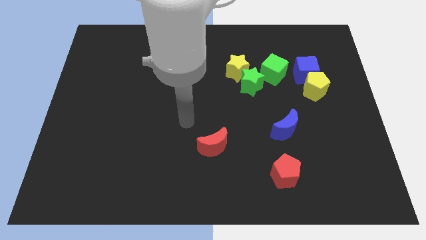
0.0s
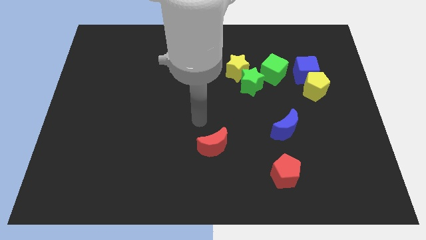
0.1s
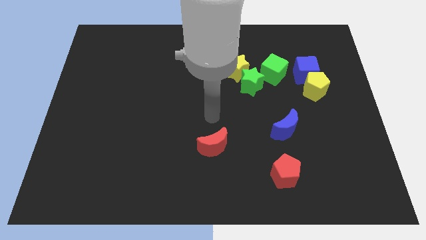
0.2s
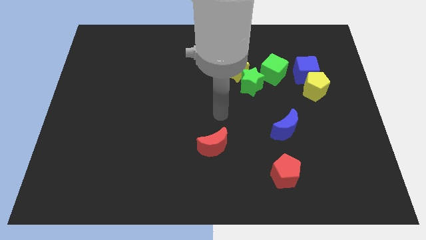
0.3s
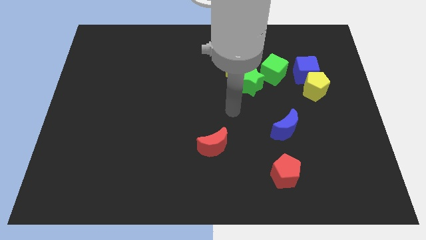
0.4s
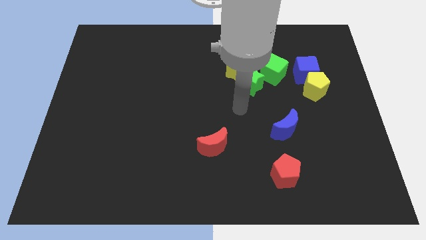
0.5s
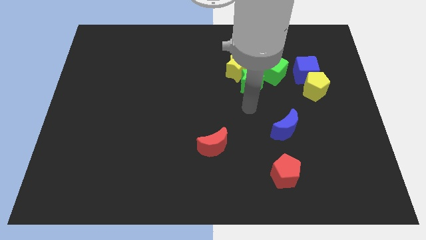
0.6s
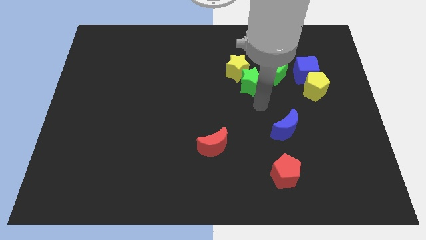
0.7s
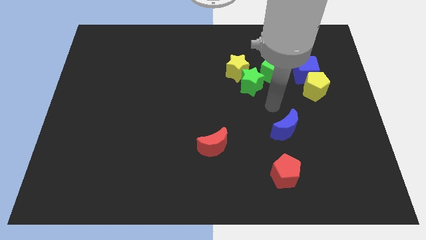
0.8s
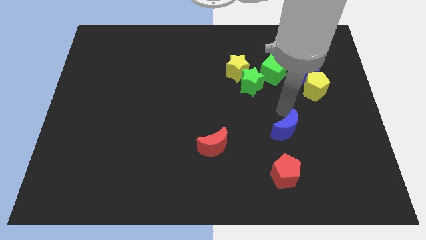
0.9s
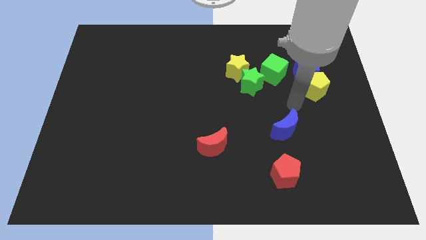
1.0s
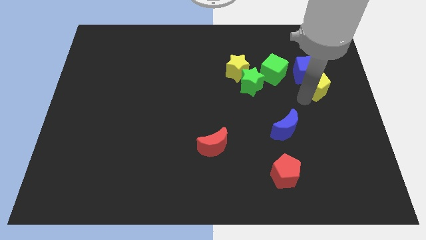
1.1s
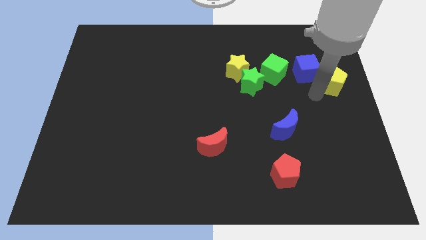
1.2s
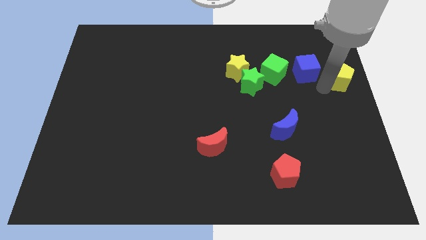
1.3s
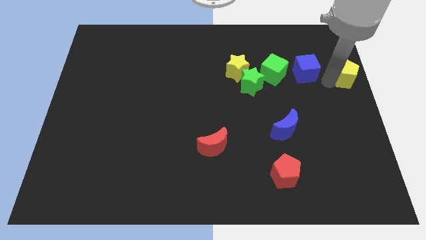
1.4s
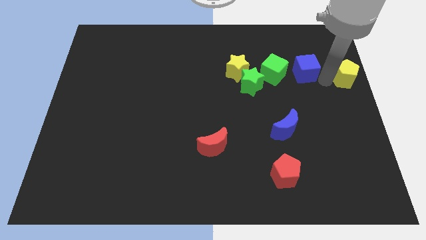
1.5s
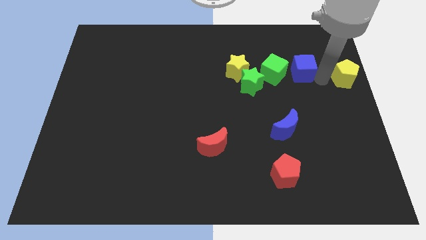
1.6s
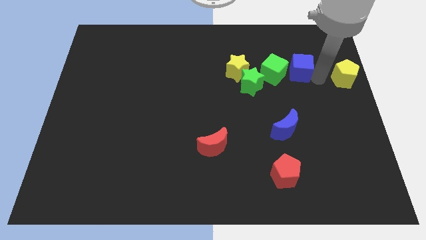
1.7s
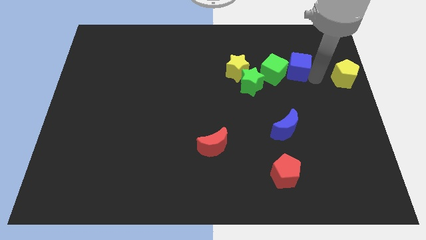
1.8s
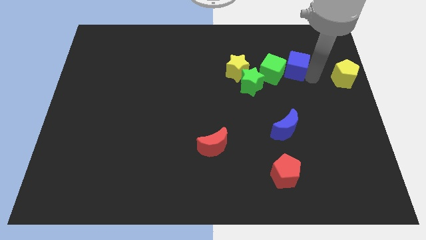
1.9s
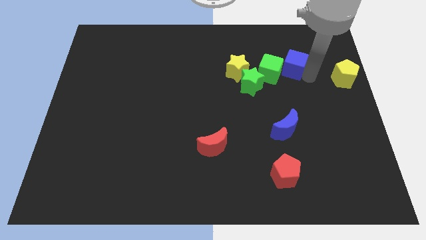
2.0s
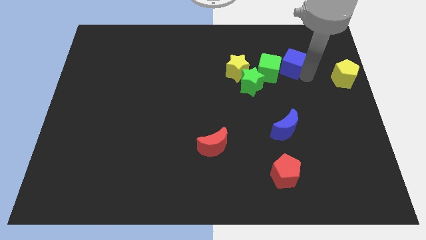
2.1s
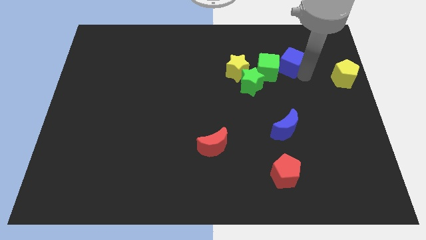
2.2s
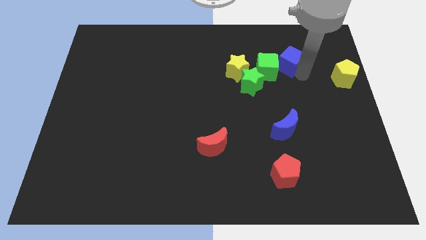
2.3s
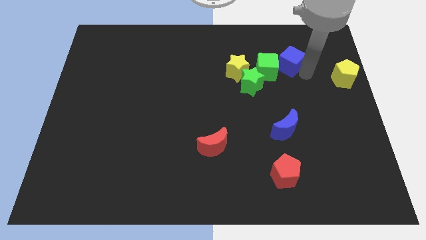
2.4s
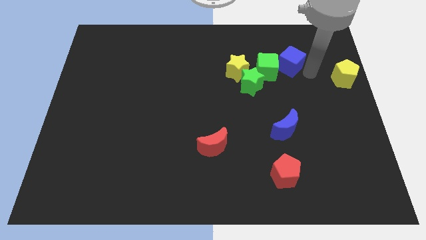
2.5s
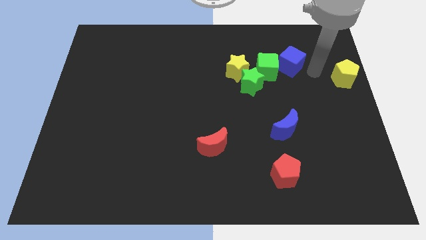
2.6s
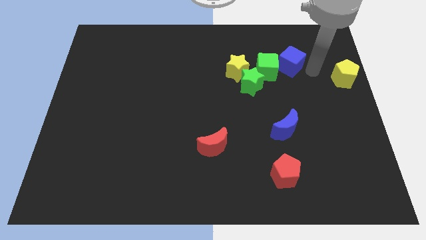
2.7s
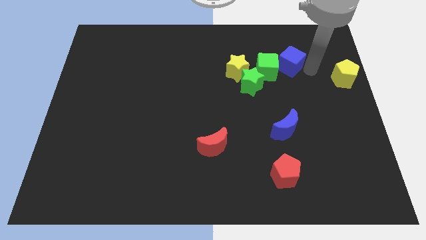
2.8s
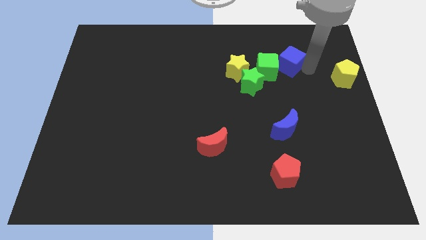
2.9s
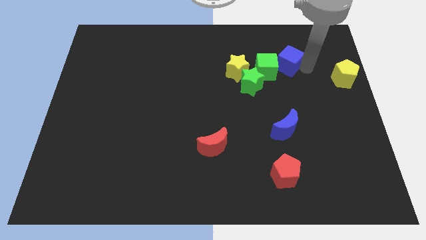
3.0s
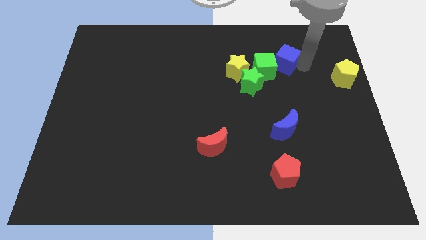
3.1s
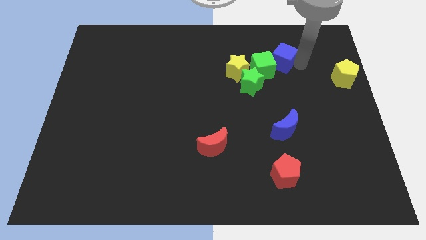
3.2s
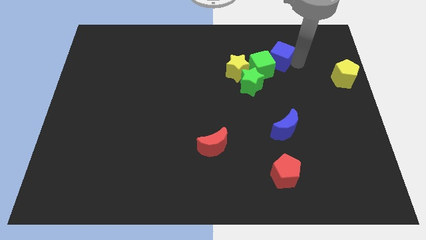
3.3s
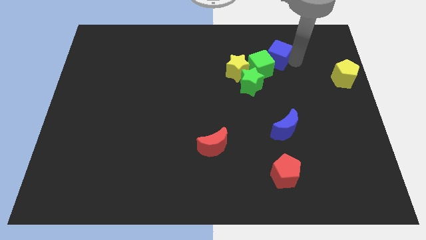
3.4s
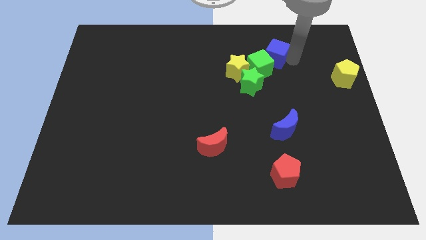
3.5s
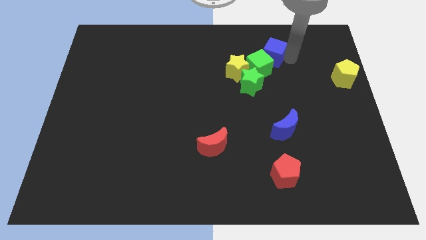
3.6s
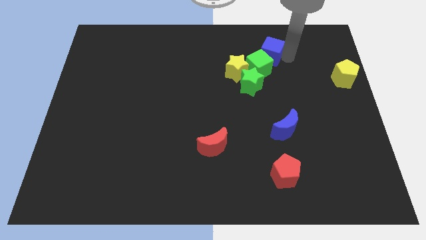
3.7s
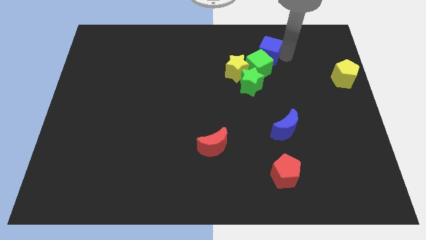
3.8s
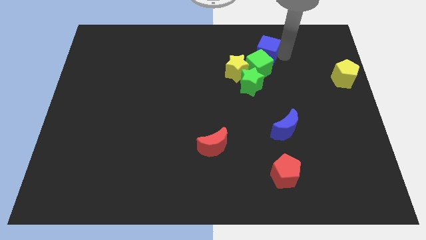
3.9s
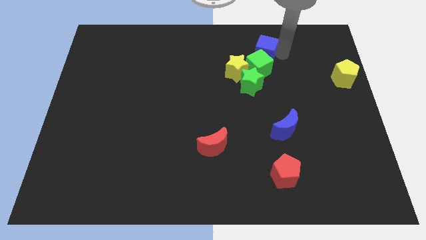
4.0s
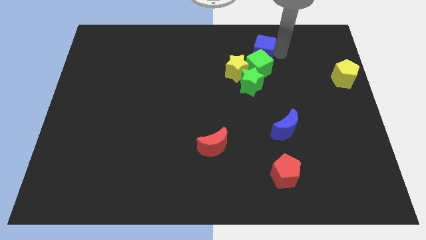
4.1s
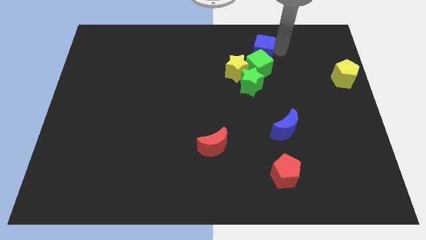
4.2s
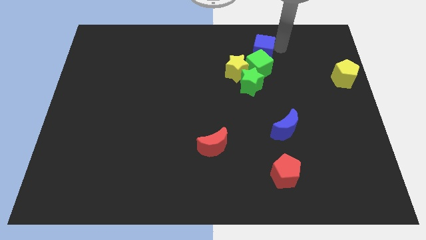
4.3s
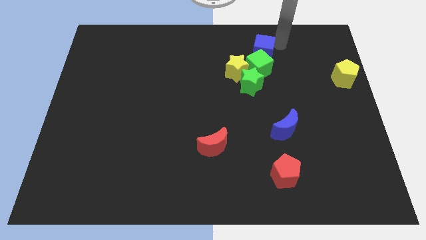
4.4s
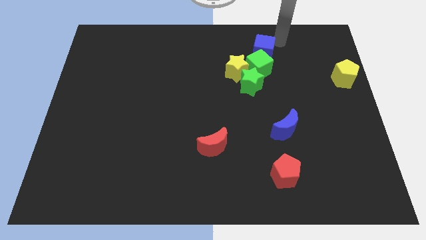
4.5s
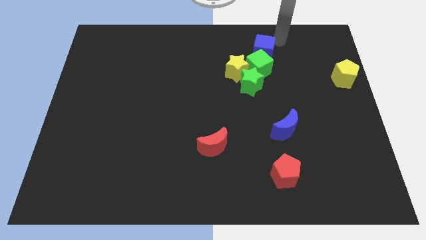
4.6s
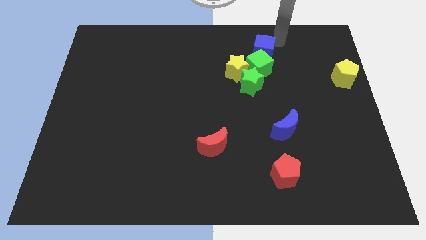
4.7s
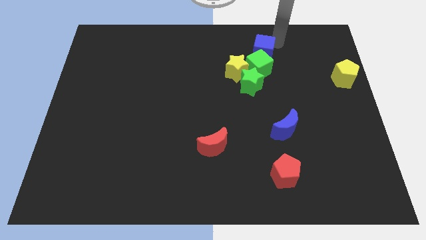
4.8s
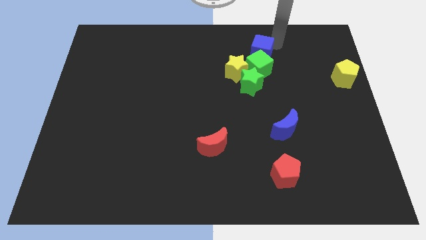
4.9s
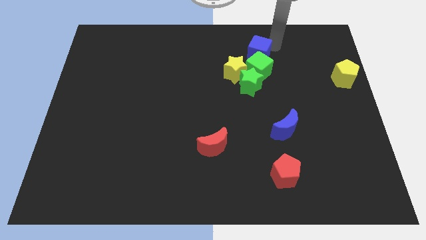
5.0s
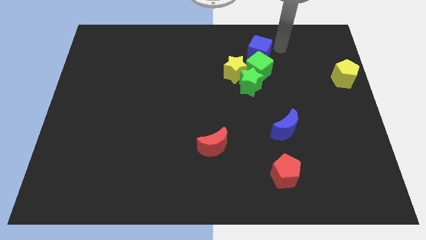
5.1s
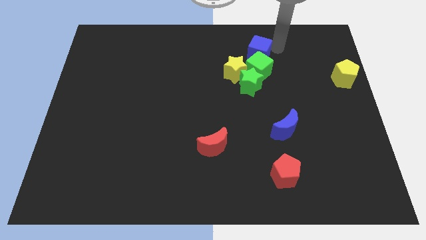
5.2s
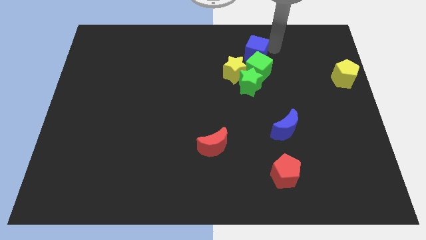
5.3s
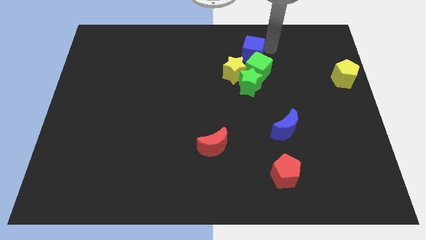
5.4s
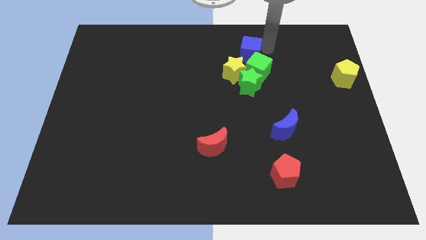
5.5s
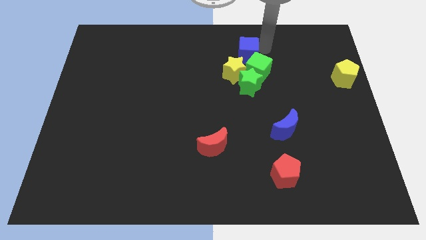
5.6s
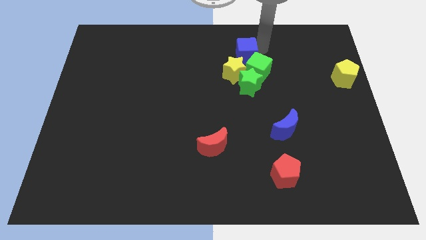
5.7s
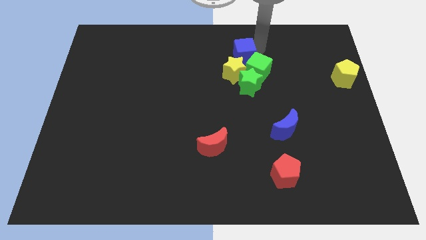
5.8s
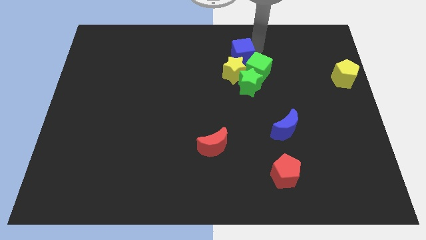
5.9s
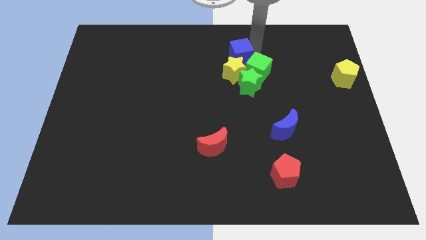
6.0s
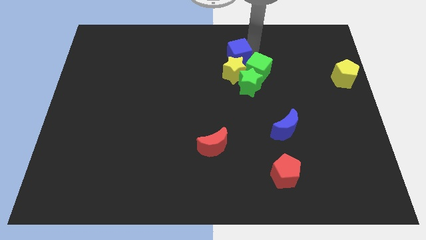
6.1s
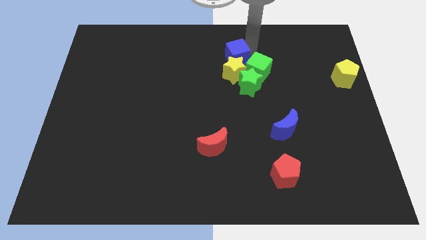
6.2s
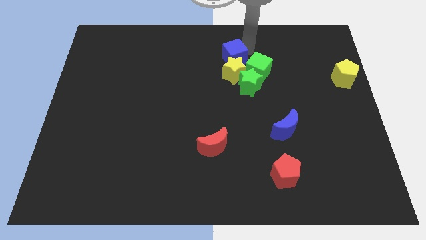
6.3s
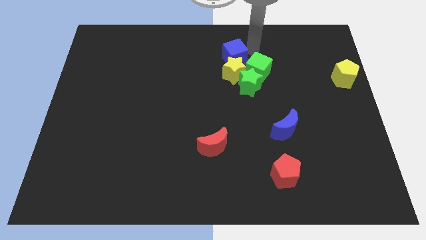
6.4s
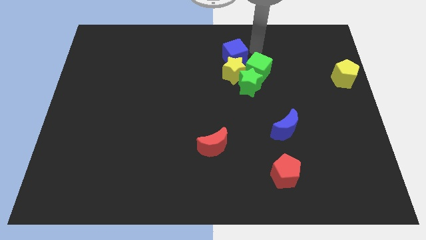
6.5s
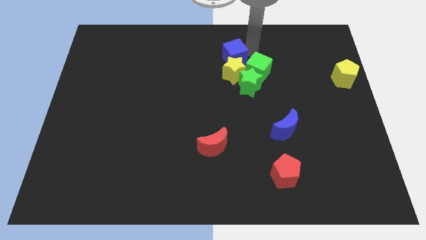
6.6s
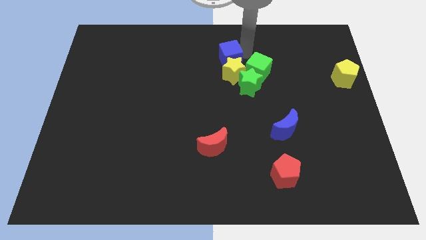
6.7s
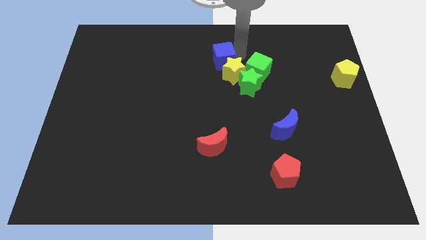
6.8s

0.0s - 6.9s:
slide the blue cube to the left

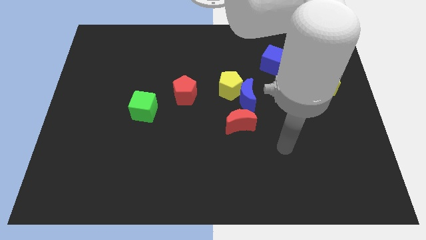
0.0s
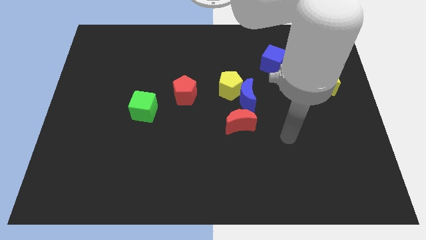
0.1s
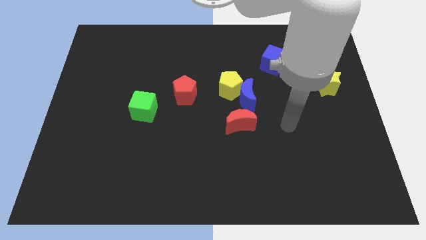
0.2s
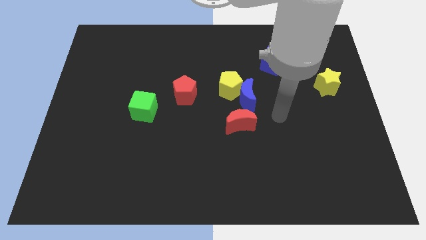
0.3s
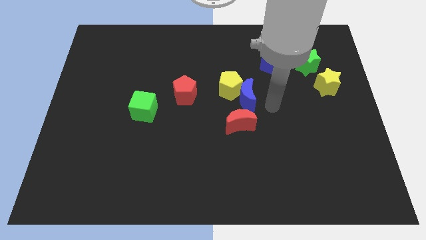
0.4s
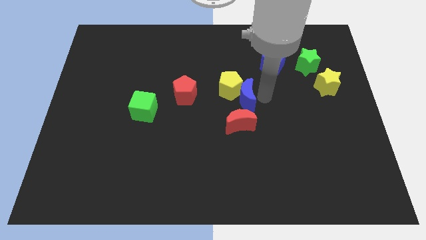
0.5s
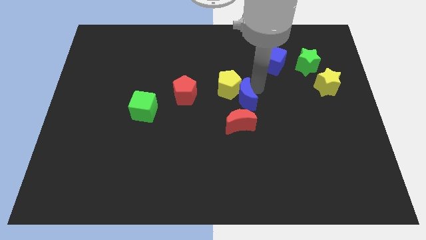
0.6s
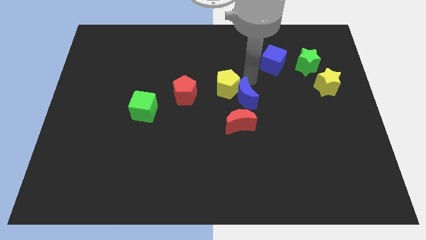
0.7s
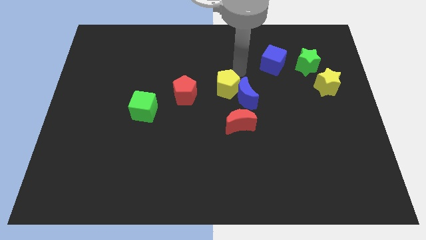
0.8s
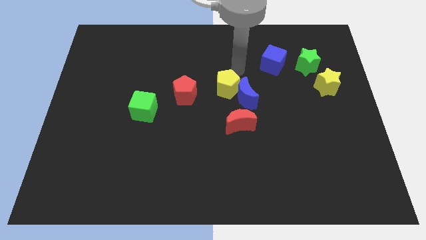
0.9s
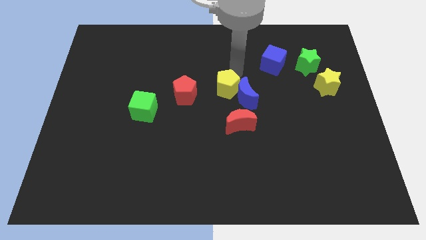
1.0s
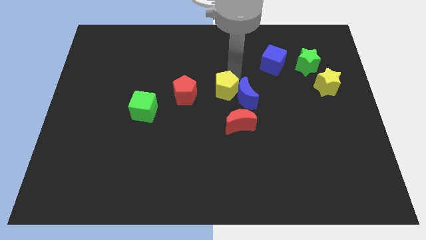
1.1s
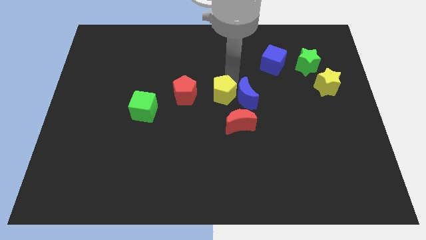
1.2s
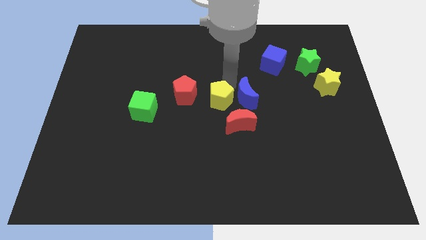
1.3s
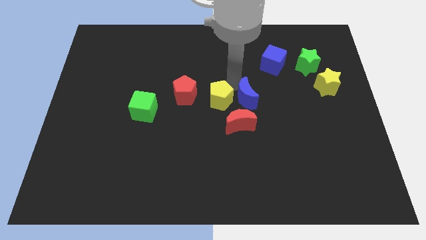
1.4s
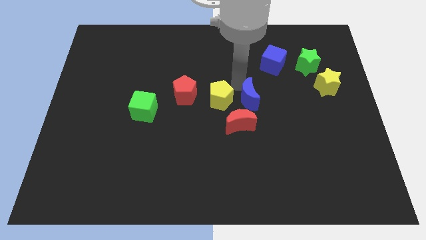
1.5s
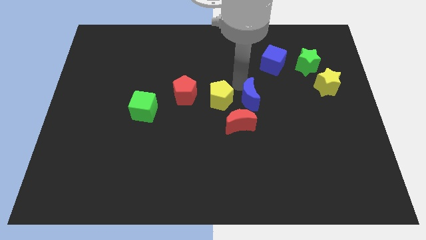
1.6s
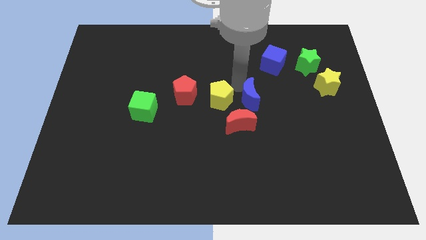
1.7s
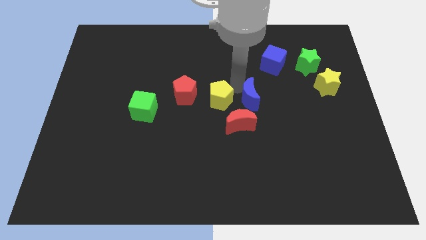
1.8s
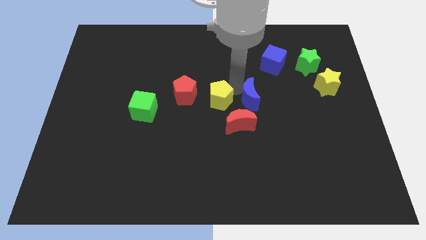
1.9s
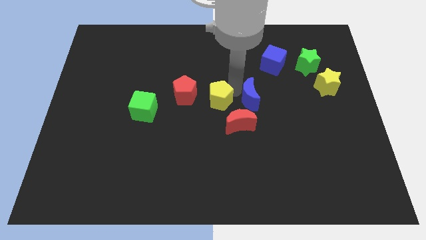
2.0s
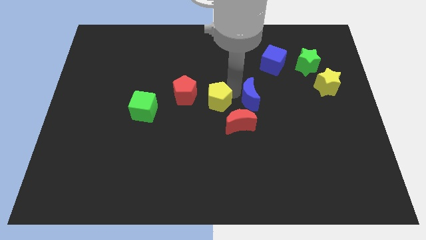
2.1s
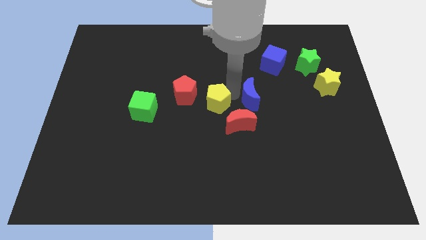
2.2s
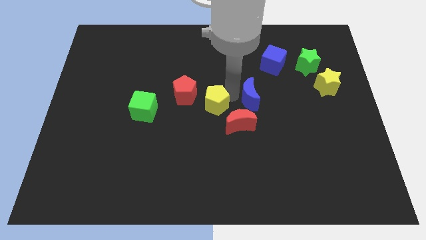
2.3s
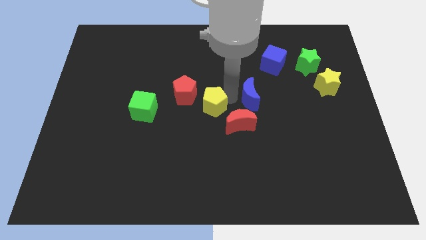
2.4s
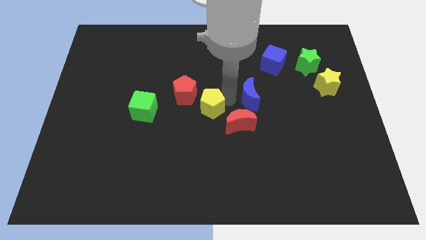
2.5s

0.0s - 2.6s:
slightly move the yellow pentagon down and to the left
